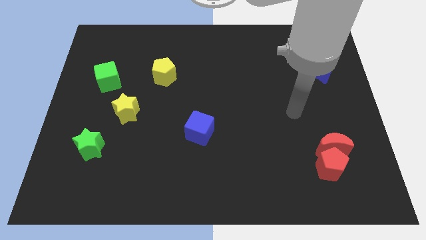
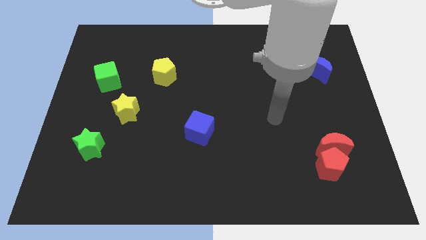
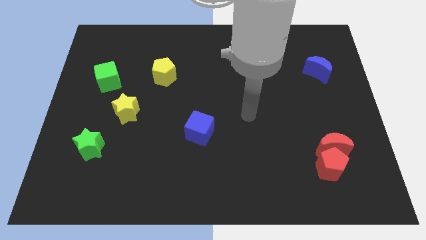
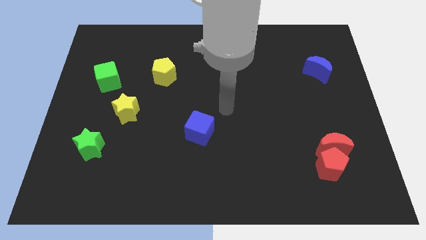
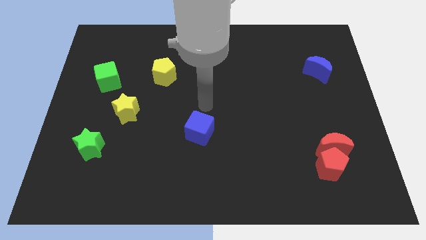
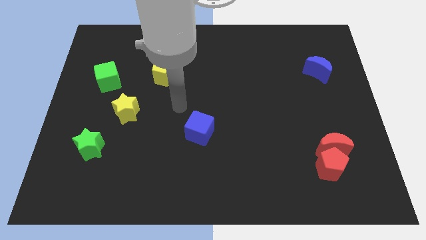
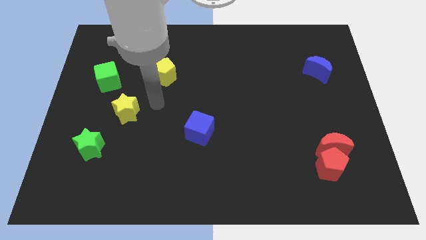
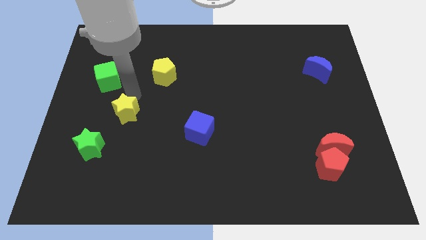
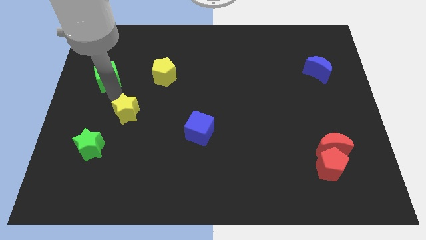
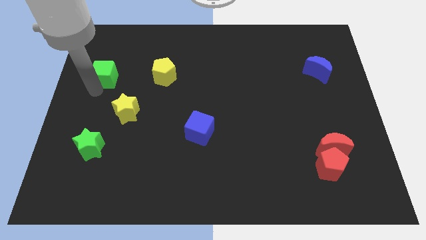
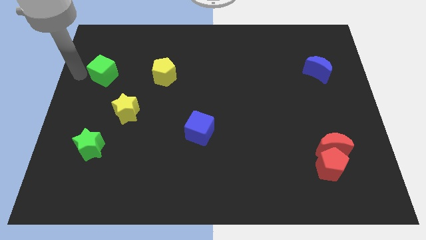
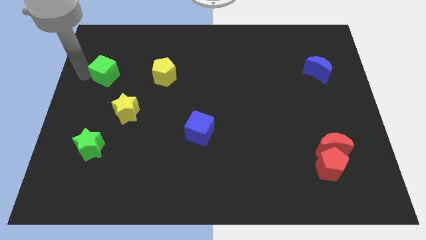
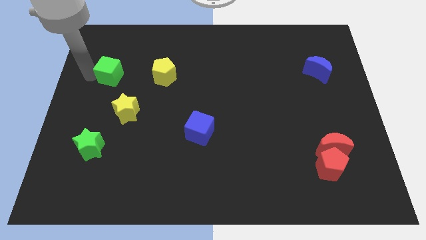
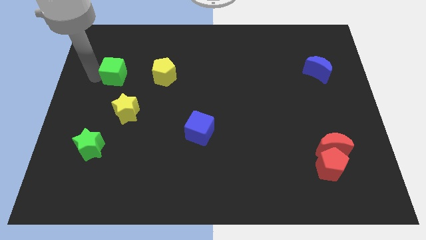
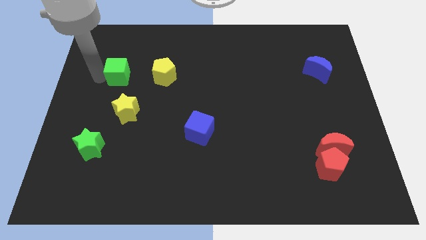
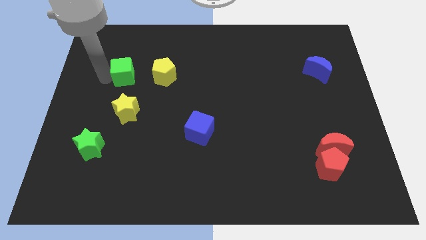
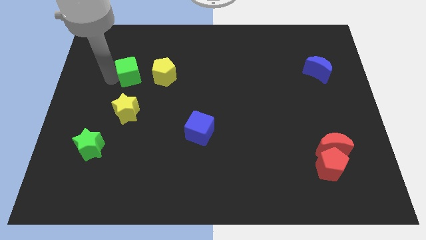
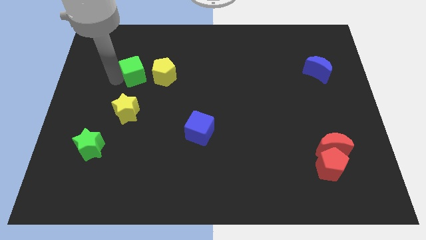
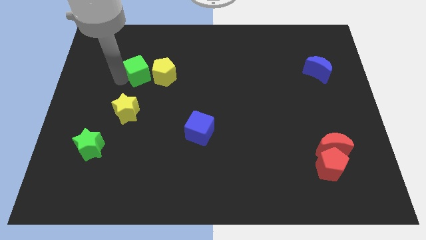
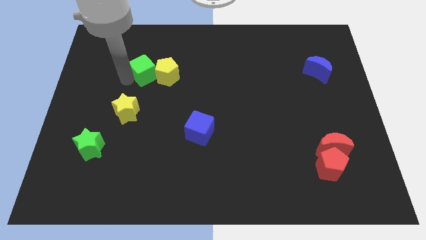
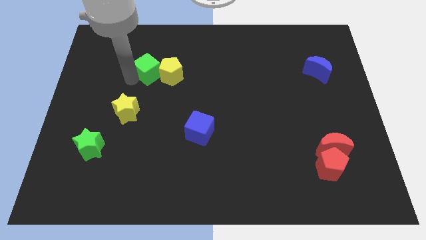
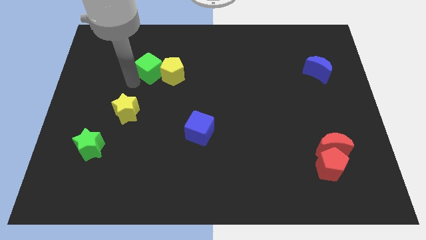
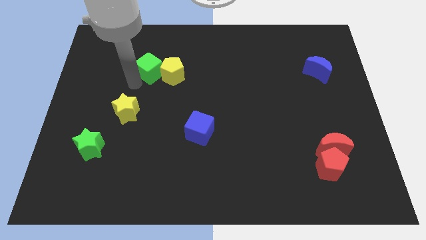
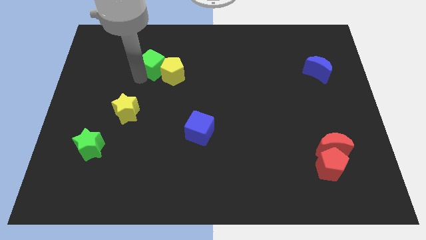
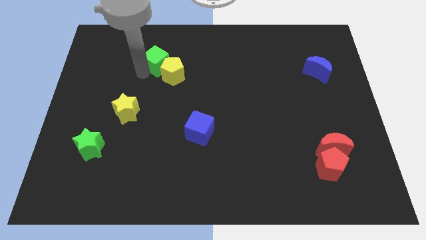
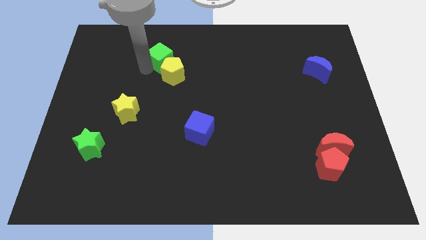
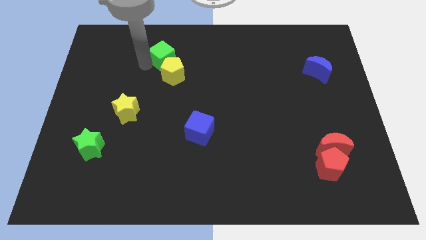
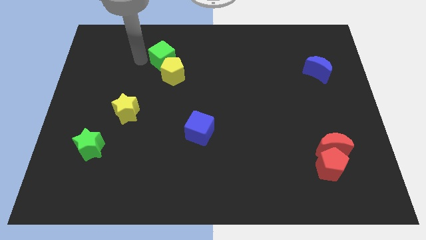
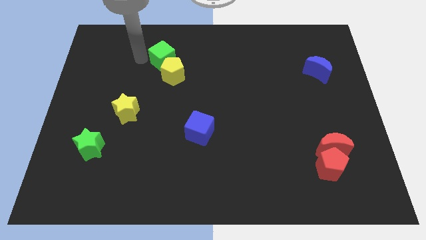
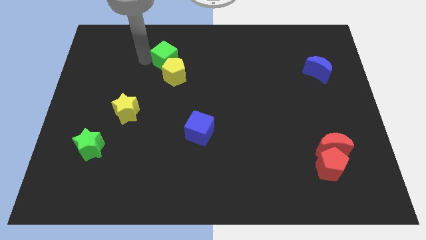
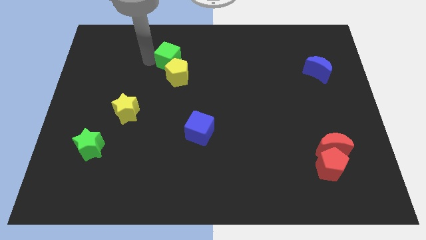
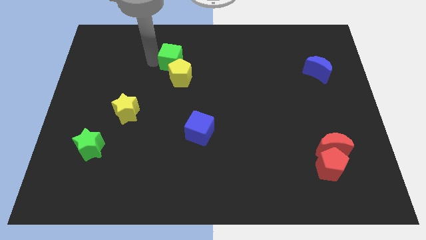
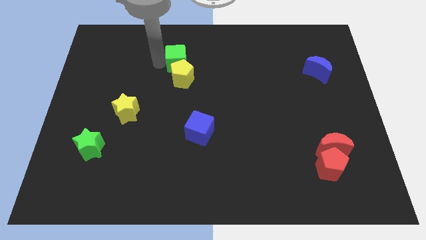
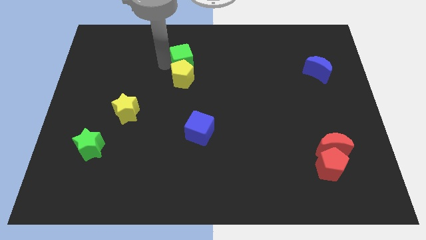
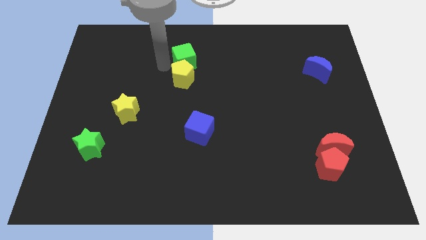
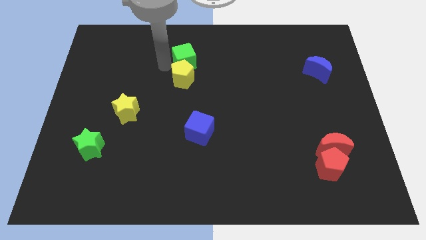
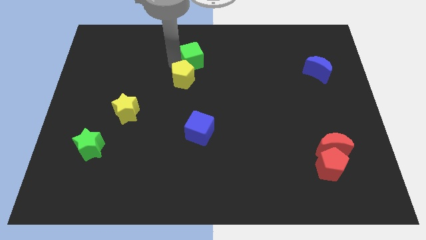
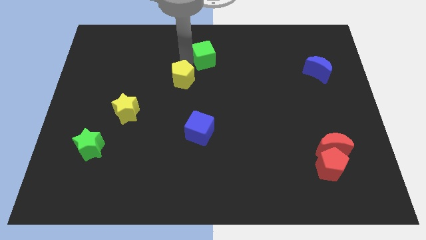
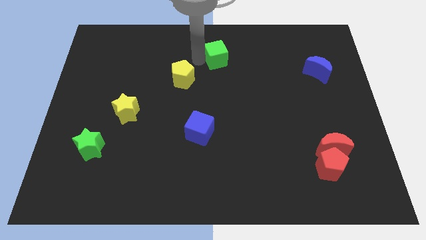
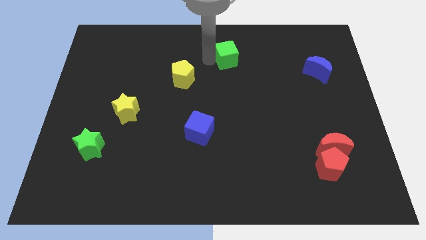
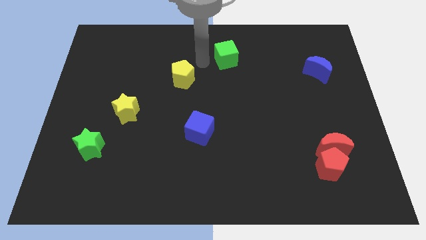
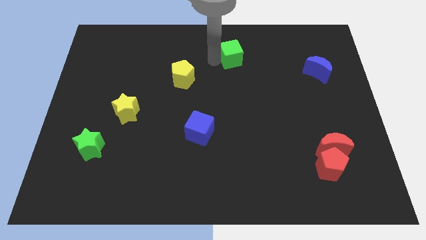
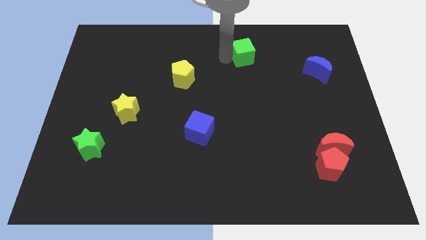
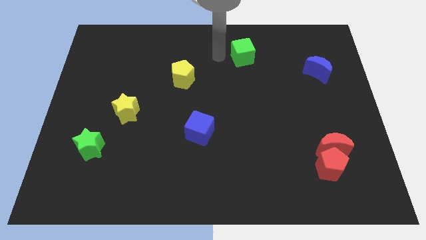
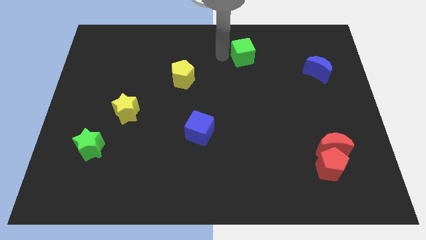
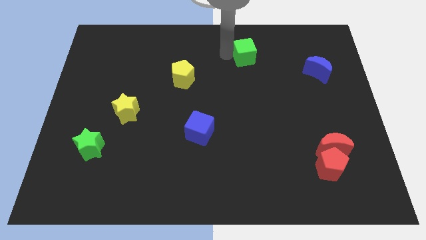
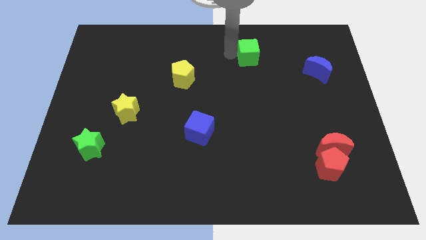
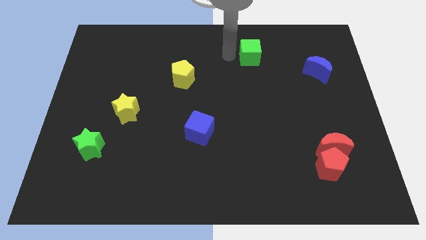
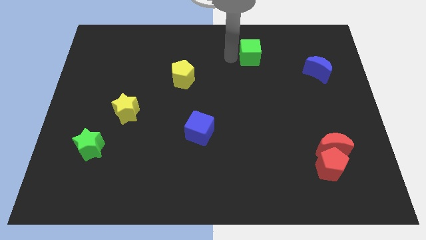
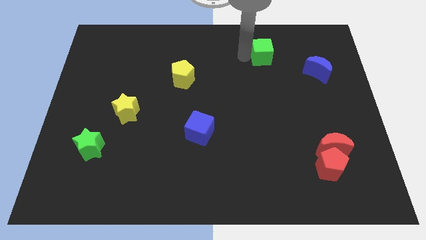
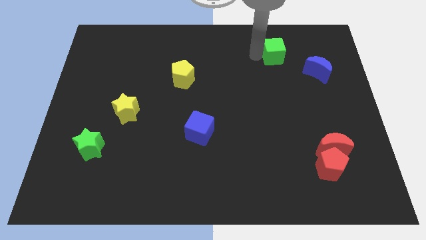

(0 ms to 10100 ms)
move the green cube to the top left of the blue moon
